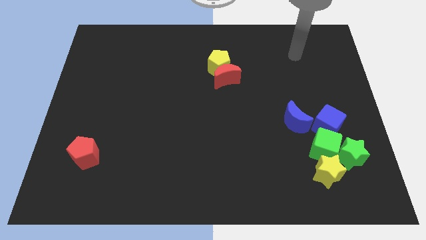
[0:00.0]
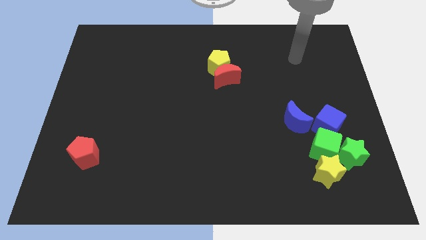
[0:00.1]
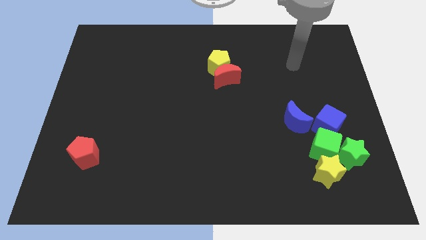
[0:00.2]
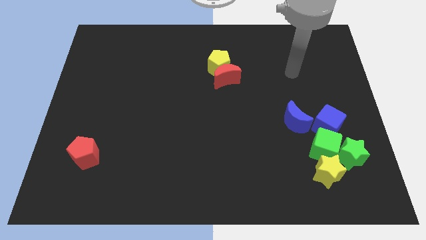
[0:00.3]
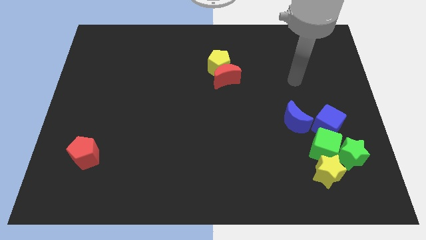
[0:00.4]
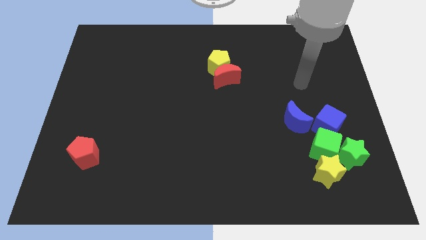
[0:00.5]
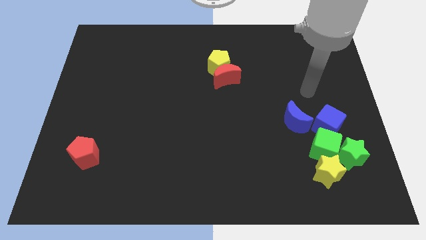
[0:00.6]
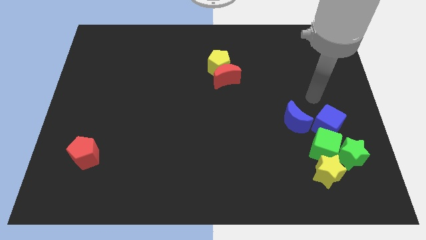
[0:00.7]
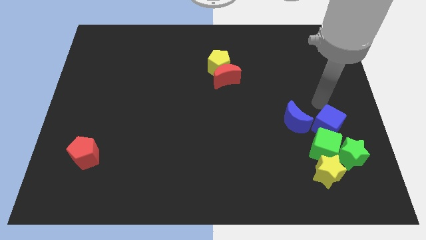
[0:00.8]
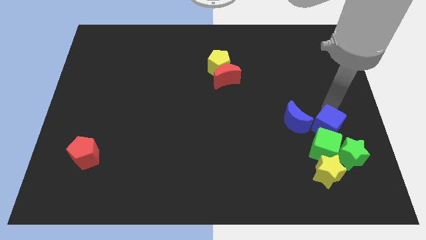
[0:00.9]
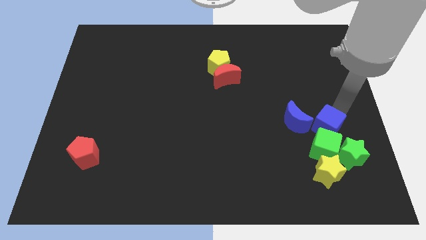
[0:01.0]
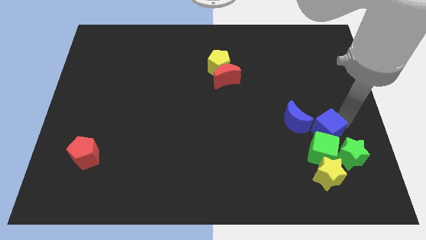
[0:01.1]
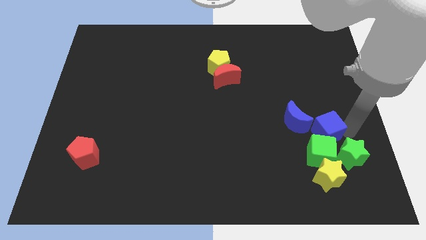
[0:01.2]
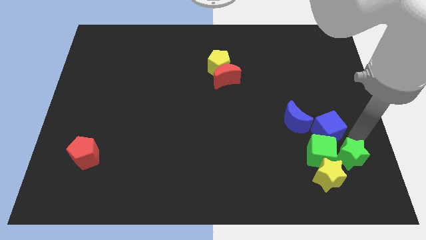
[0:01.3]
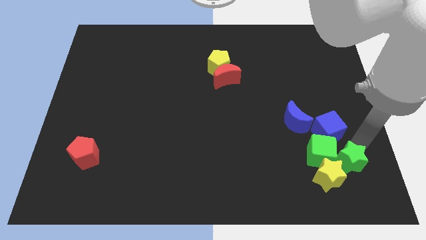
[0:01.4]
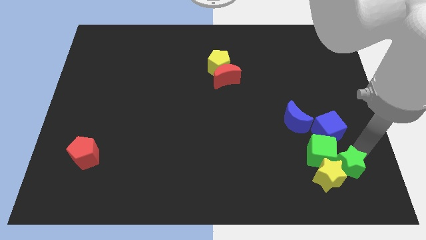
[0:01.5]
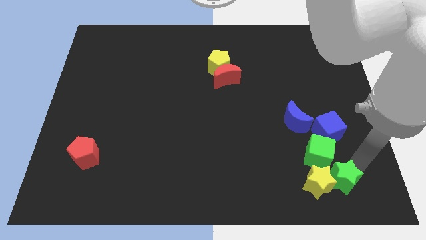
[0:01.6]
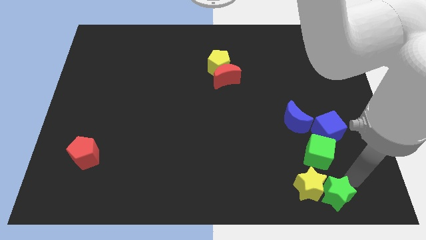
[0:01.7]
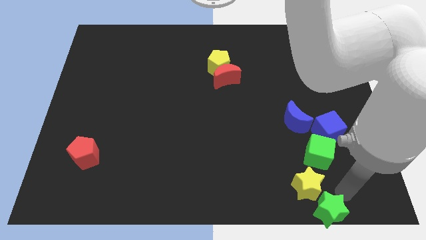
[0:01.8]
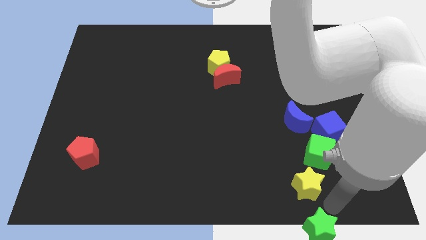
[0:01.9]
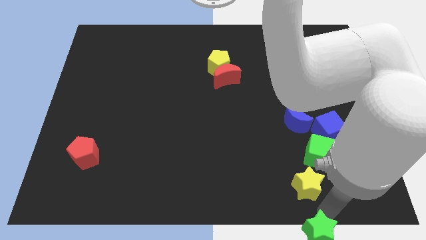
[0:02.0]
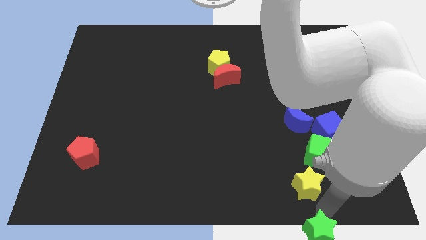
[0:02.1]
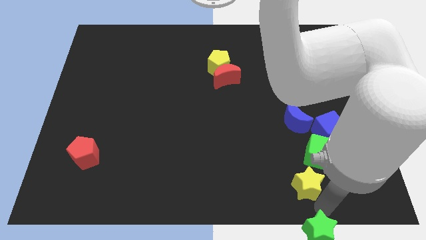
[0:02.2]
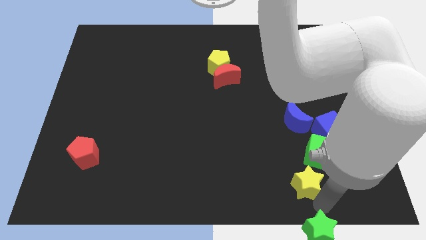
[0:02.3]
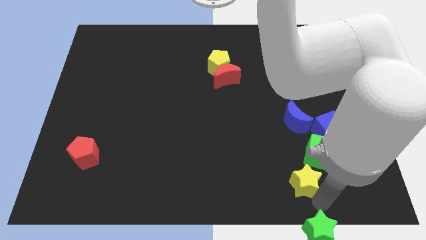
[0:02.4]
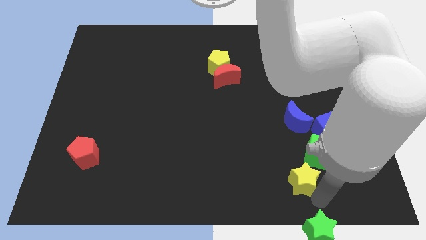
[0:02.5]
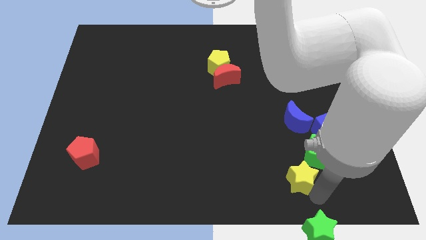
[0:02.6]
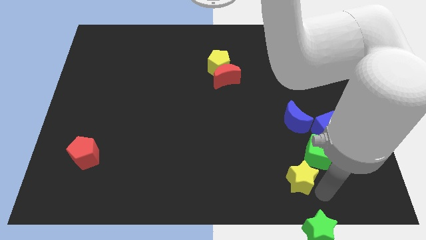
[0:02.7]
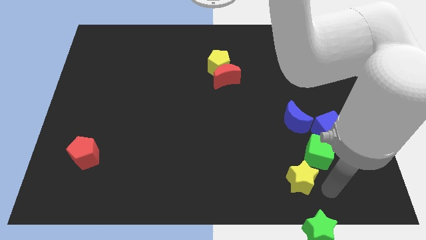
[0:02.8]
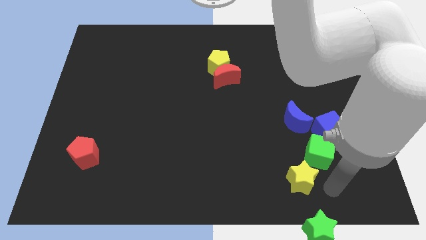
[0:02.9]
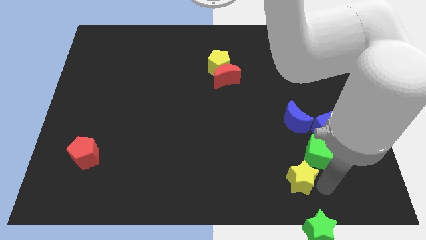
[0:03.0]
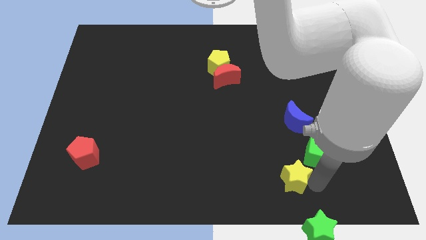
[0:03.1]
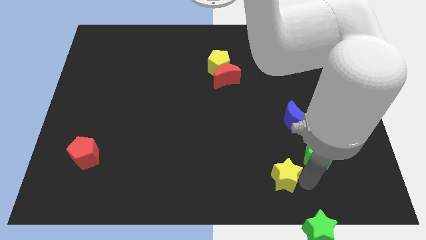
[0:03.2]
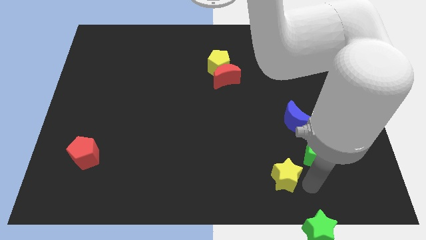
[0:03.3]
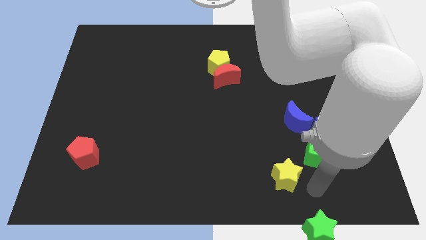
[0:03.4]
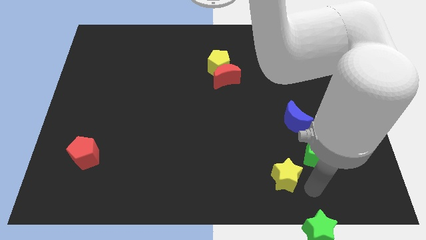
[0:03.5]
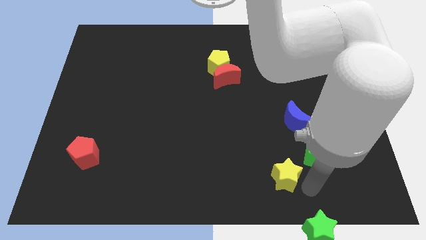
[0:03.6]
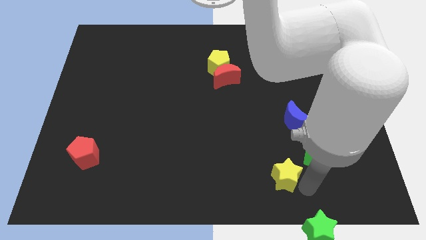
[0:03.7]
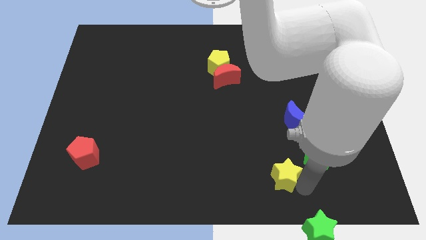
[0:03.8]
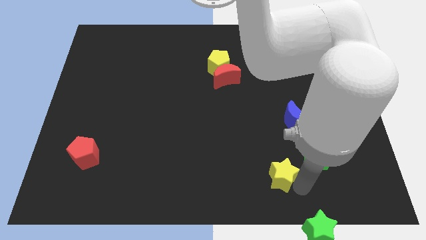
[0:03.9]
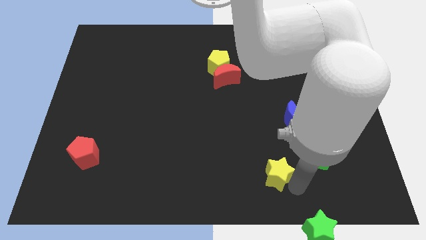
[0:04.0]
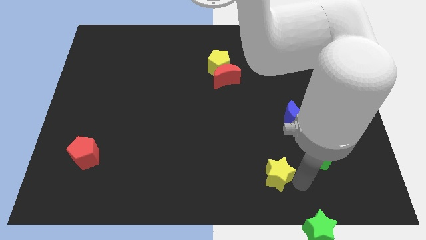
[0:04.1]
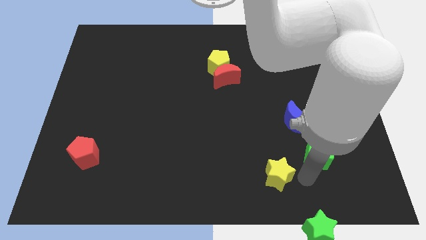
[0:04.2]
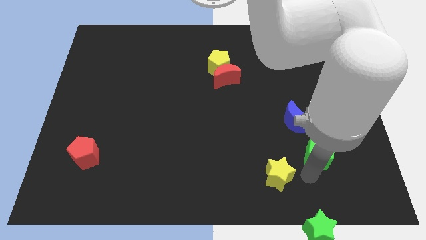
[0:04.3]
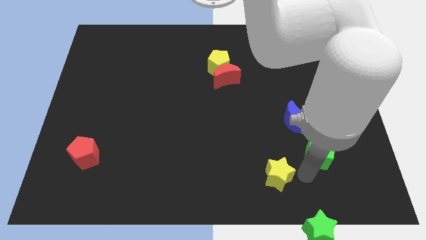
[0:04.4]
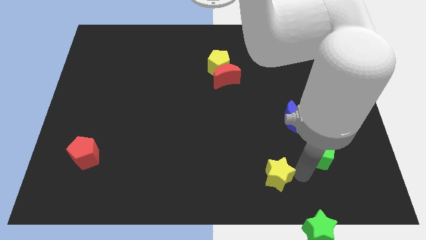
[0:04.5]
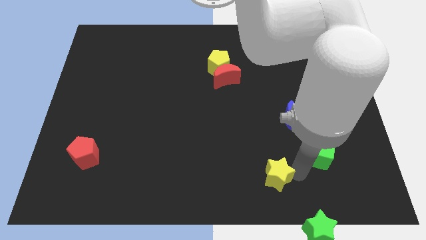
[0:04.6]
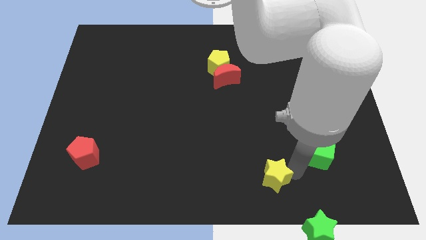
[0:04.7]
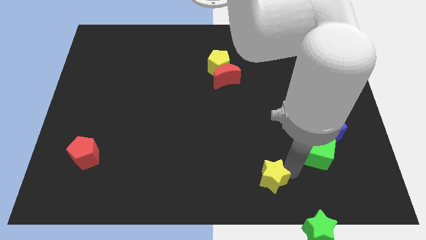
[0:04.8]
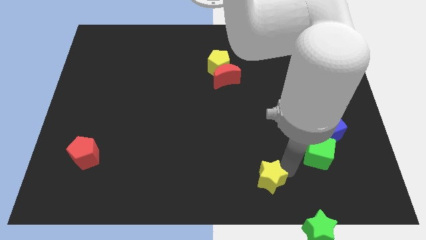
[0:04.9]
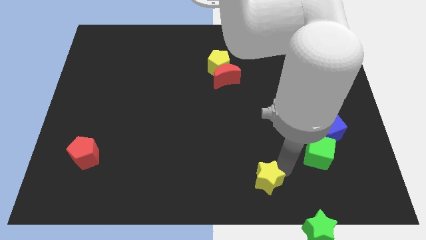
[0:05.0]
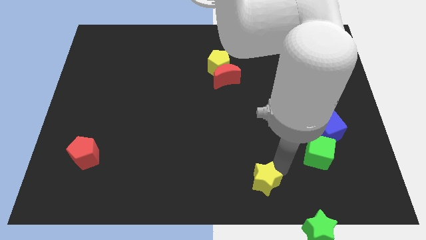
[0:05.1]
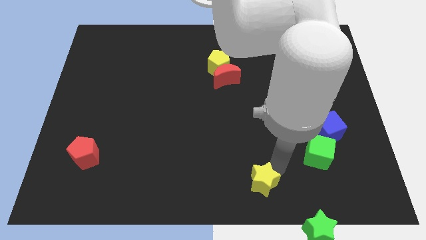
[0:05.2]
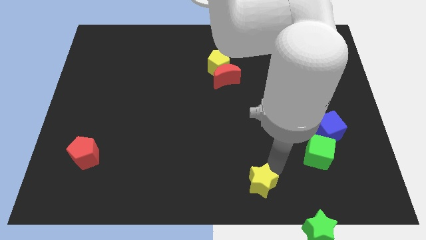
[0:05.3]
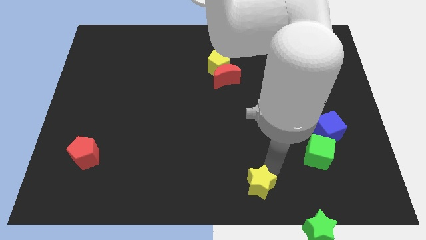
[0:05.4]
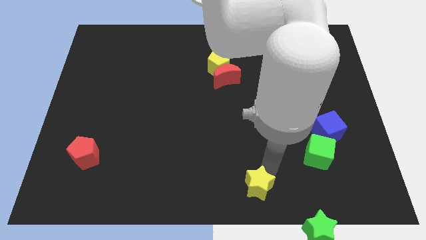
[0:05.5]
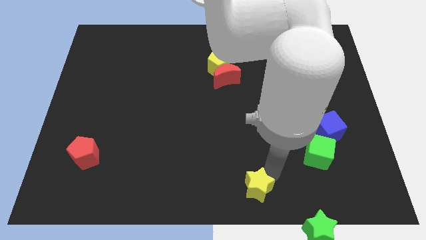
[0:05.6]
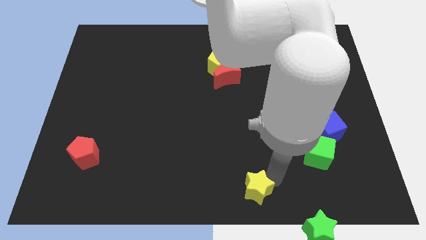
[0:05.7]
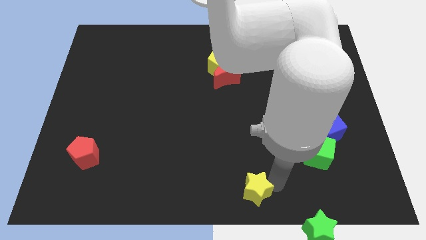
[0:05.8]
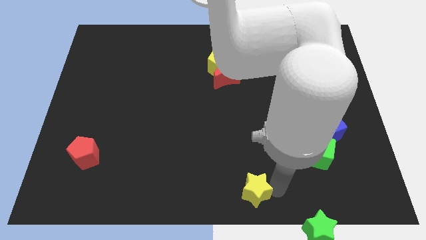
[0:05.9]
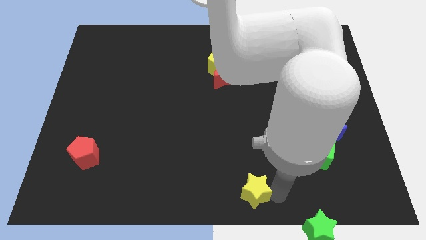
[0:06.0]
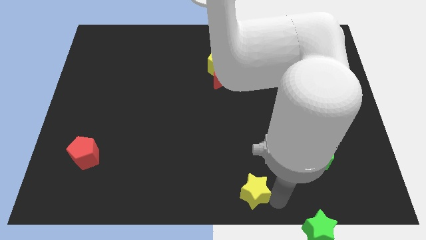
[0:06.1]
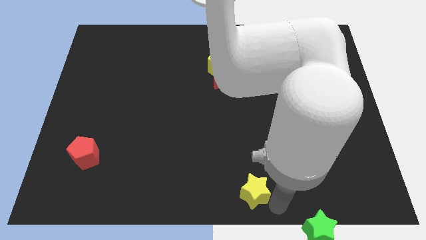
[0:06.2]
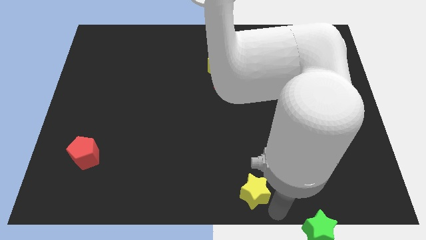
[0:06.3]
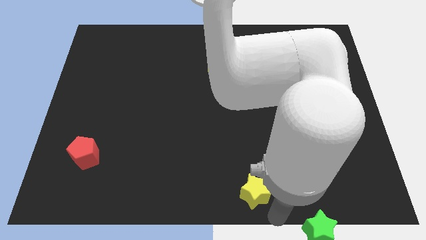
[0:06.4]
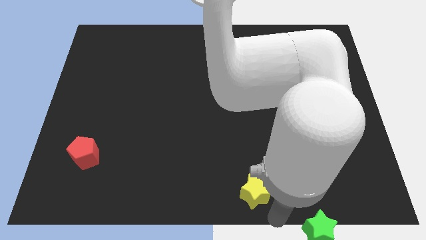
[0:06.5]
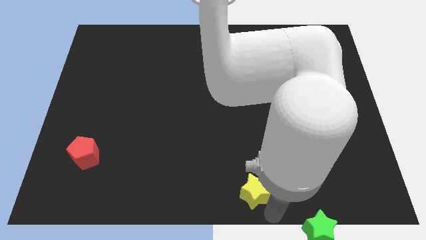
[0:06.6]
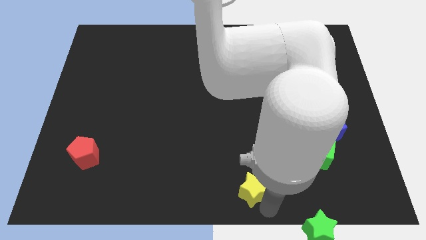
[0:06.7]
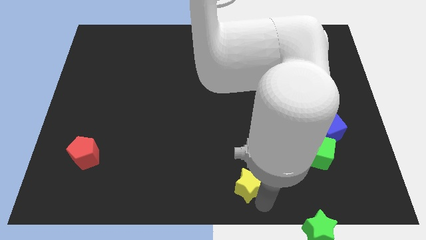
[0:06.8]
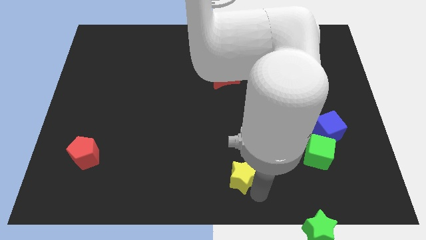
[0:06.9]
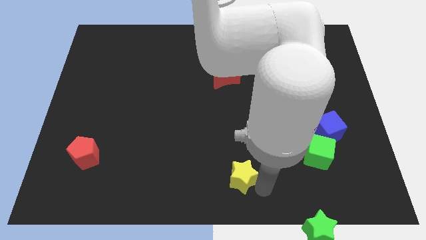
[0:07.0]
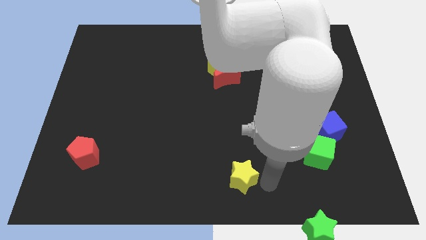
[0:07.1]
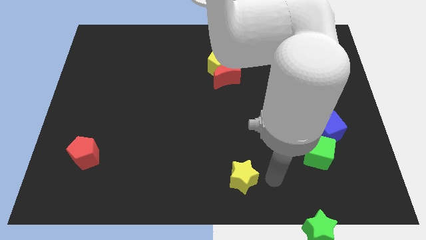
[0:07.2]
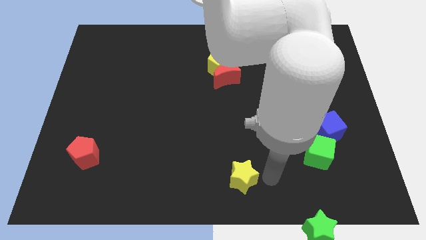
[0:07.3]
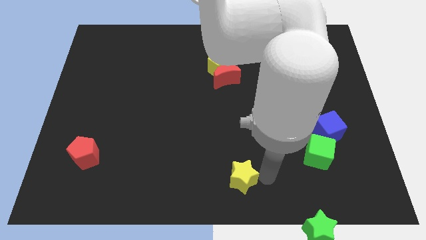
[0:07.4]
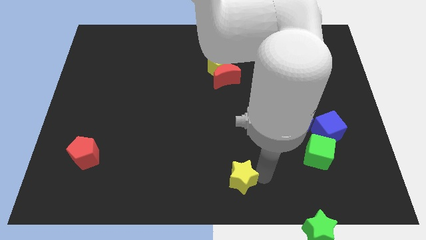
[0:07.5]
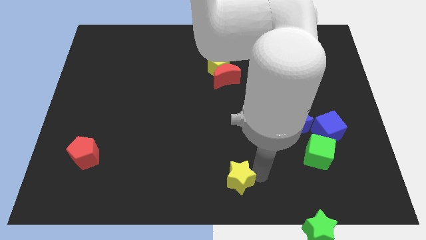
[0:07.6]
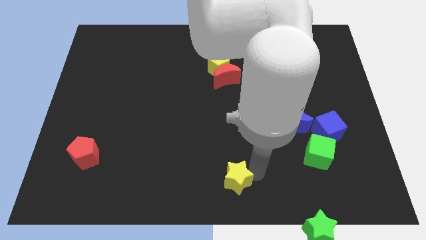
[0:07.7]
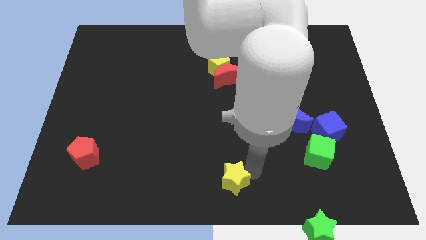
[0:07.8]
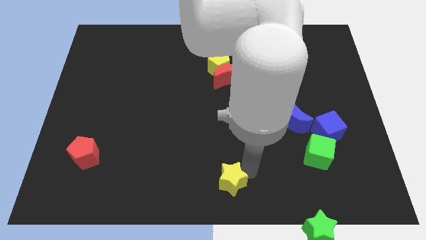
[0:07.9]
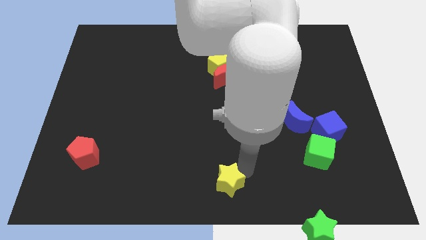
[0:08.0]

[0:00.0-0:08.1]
slide the yellow star to the left

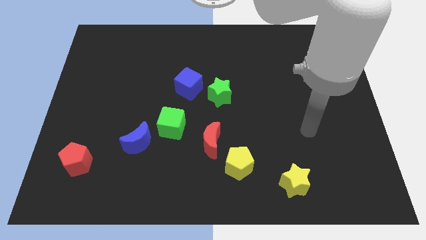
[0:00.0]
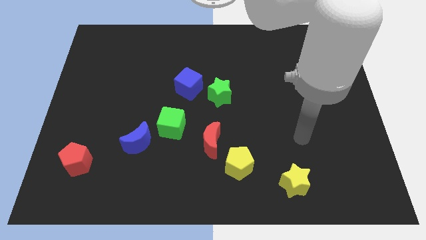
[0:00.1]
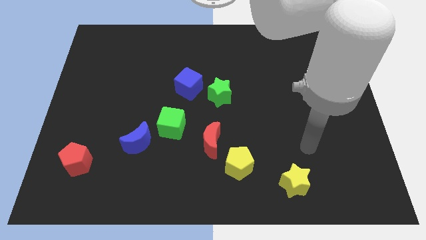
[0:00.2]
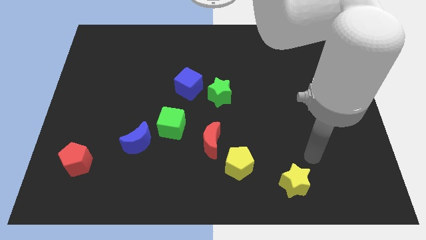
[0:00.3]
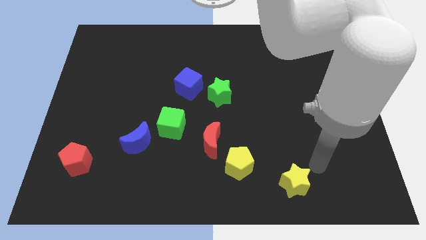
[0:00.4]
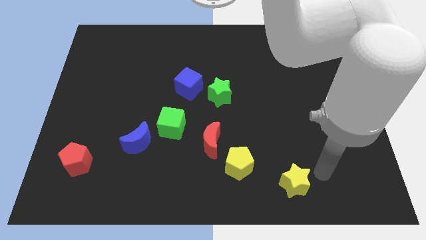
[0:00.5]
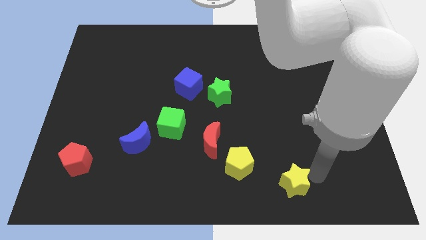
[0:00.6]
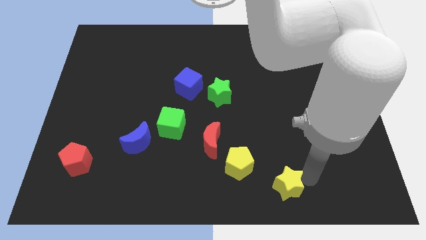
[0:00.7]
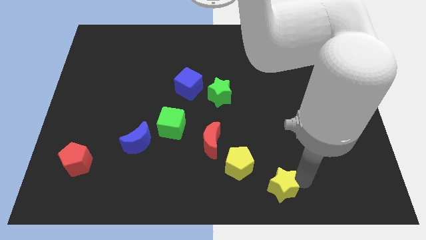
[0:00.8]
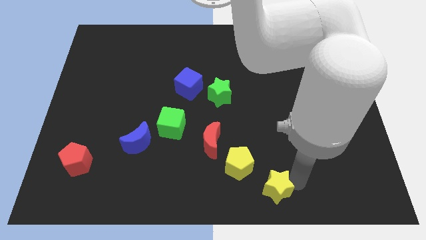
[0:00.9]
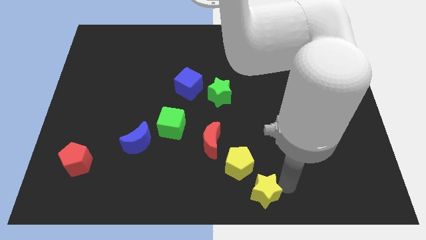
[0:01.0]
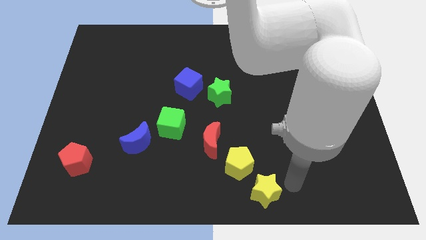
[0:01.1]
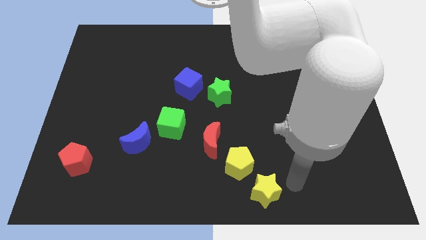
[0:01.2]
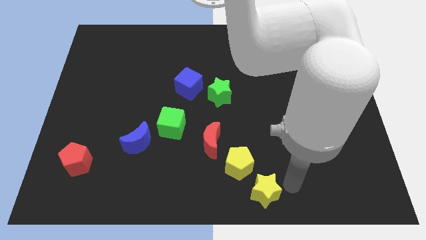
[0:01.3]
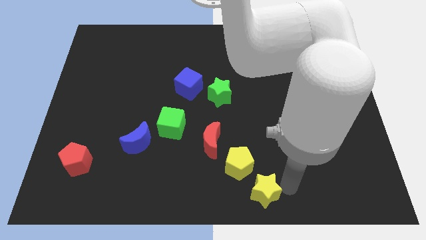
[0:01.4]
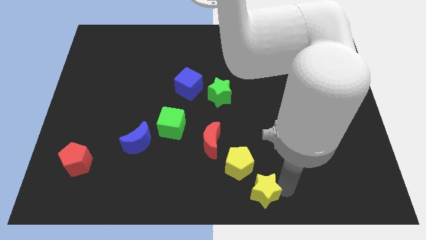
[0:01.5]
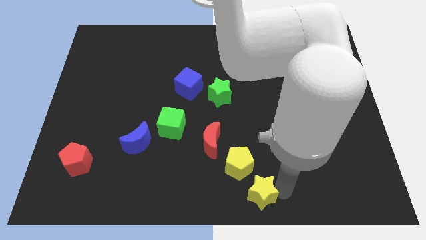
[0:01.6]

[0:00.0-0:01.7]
slightly push the yellow star left
